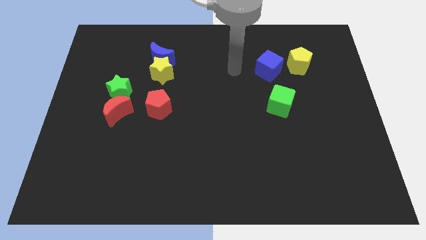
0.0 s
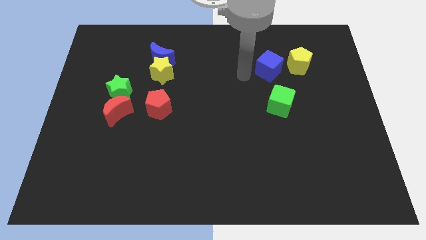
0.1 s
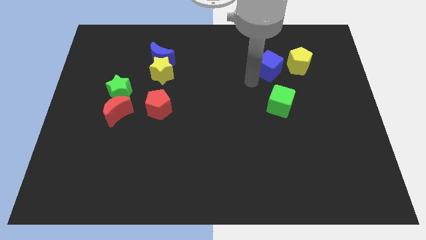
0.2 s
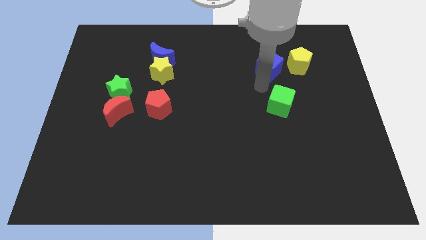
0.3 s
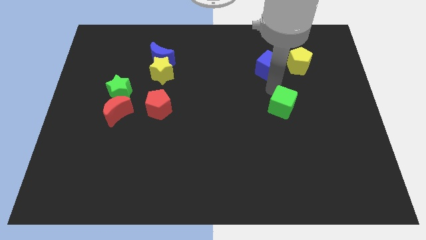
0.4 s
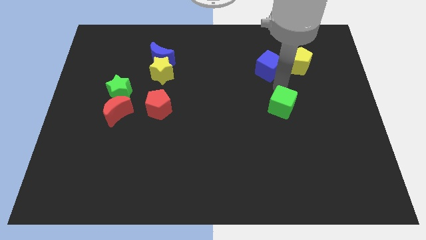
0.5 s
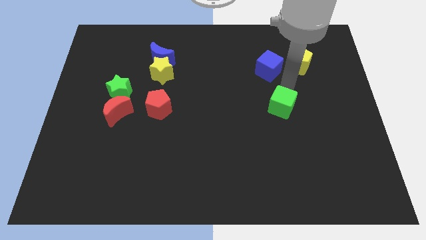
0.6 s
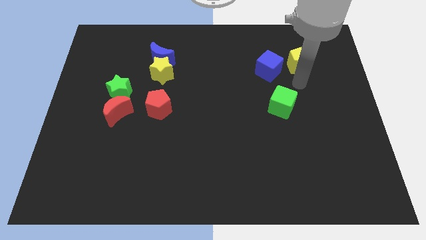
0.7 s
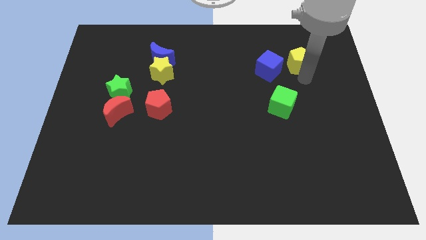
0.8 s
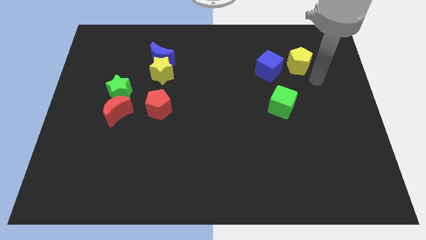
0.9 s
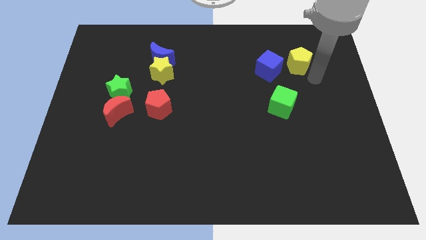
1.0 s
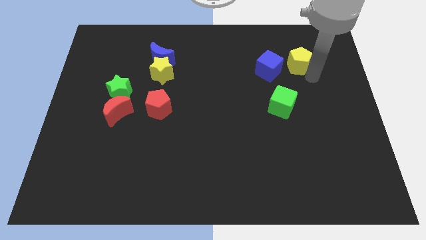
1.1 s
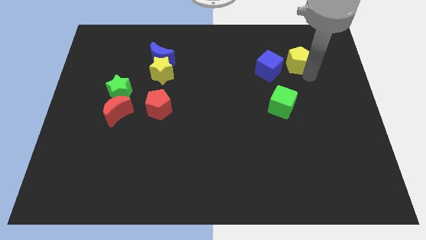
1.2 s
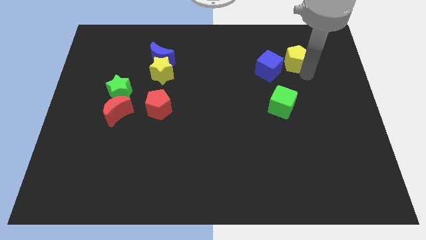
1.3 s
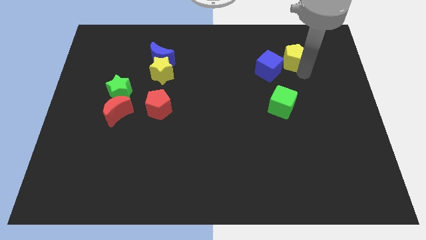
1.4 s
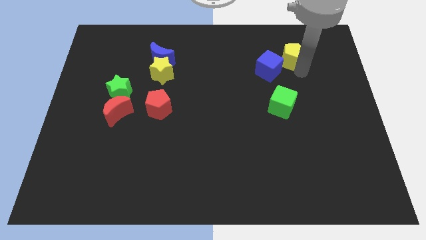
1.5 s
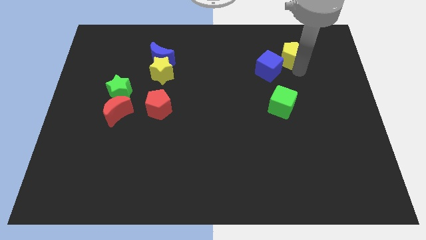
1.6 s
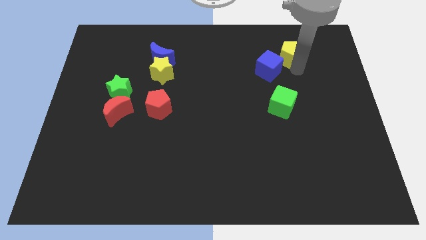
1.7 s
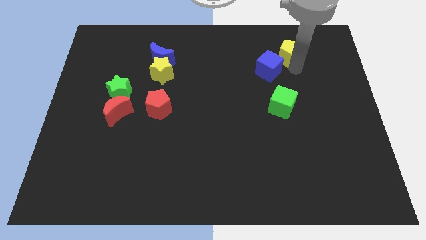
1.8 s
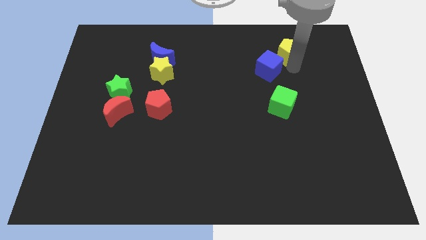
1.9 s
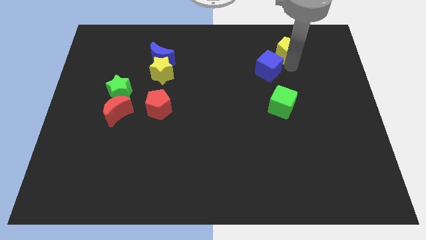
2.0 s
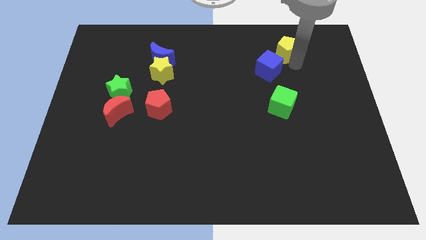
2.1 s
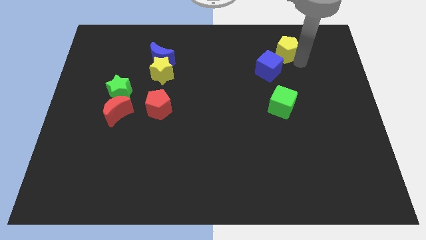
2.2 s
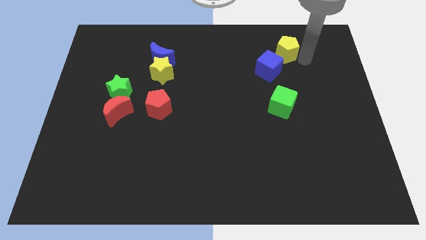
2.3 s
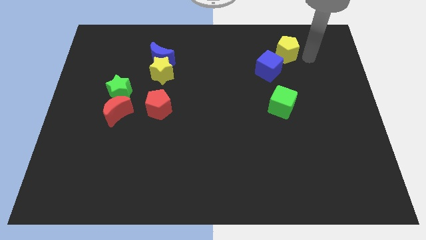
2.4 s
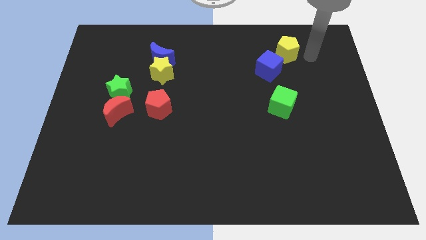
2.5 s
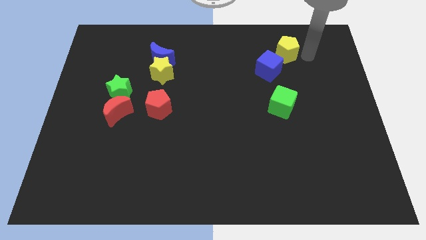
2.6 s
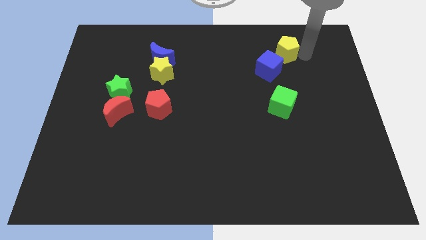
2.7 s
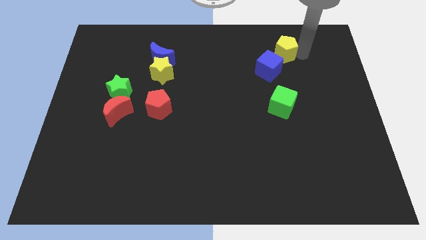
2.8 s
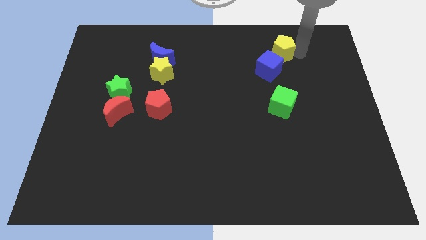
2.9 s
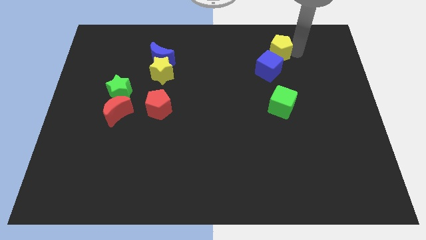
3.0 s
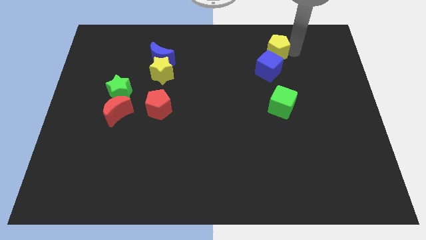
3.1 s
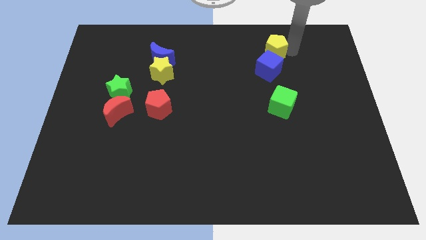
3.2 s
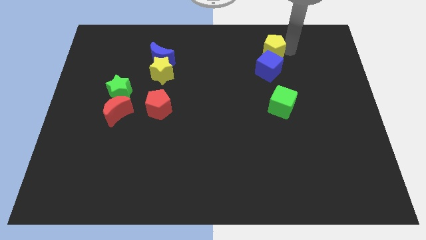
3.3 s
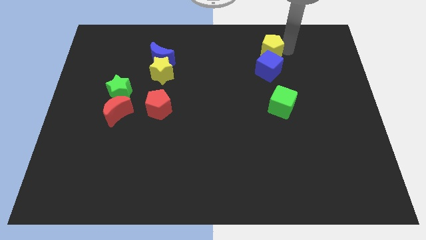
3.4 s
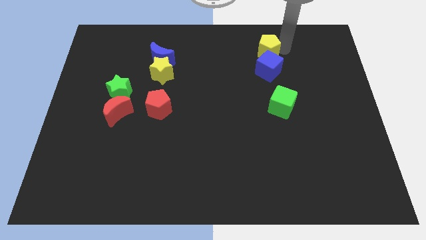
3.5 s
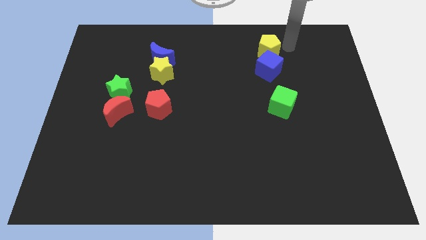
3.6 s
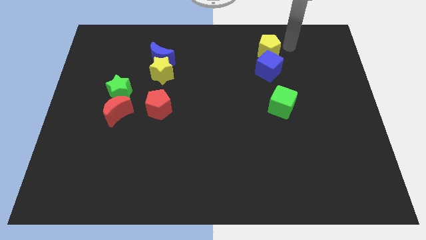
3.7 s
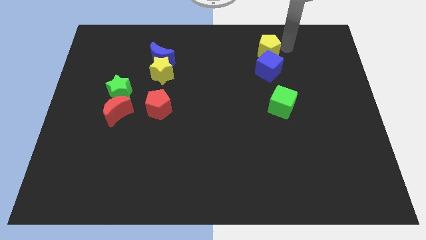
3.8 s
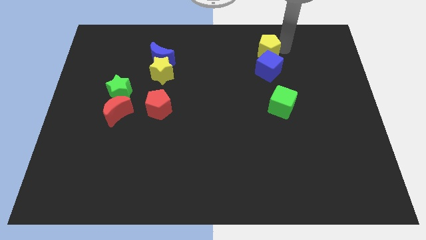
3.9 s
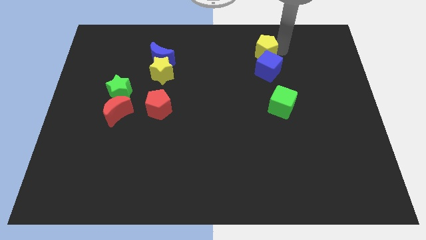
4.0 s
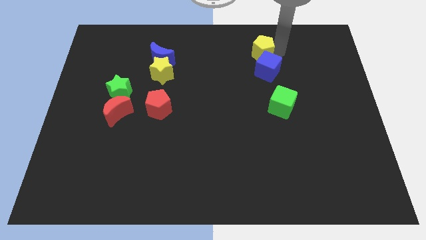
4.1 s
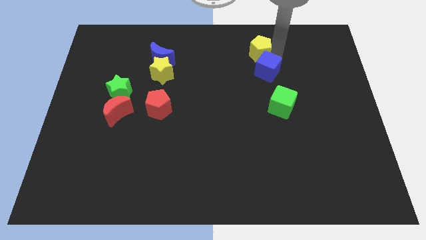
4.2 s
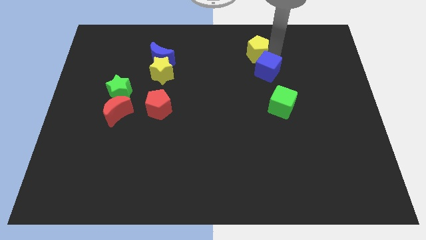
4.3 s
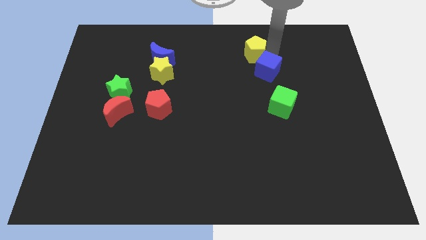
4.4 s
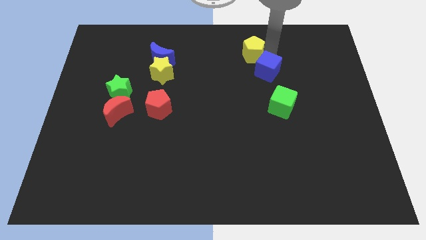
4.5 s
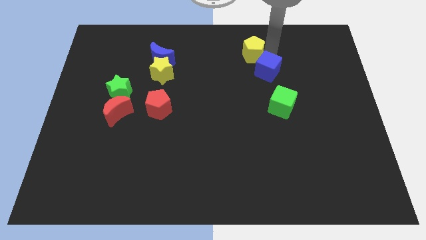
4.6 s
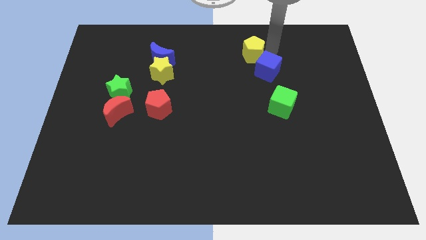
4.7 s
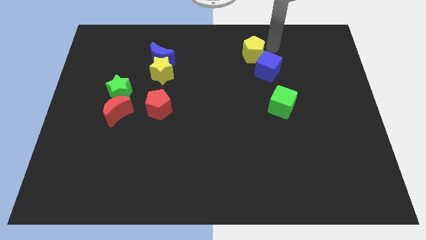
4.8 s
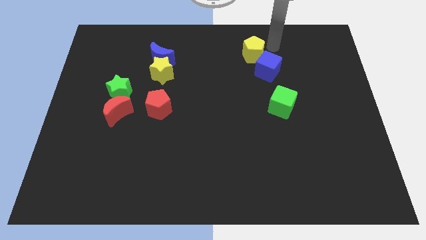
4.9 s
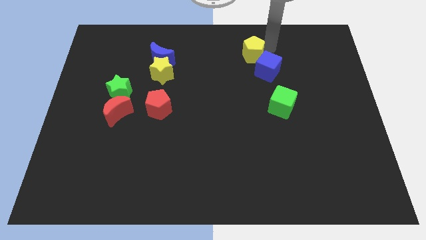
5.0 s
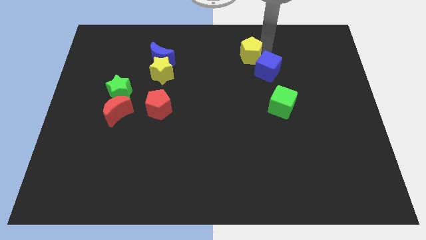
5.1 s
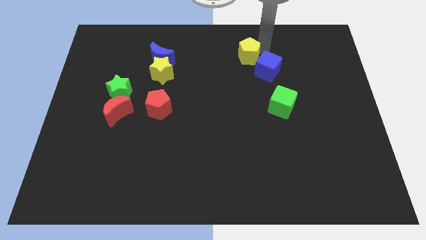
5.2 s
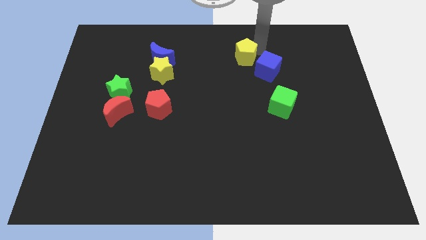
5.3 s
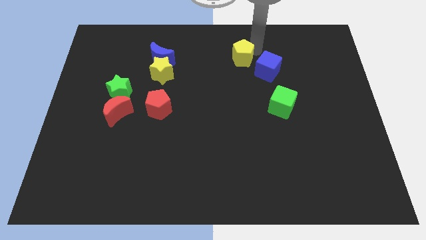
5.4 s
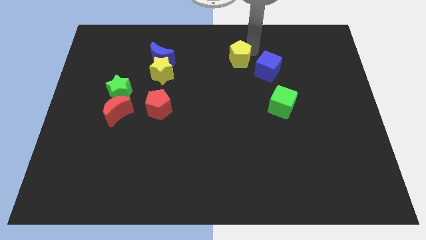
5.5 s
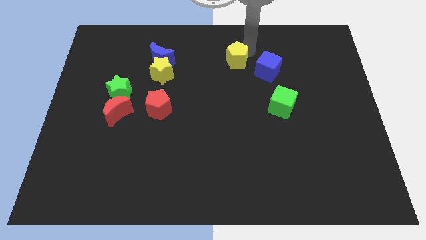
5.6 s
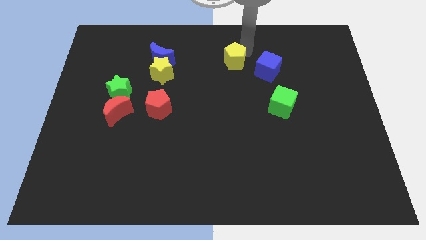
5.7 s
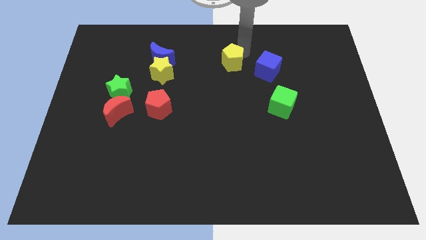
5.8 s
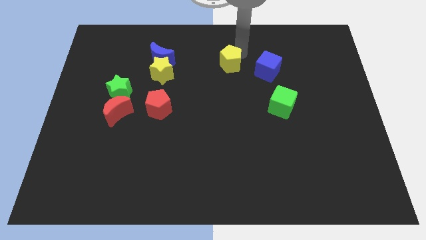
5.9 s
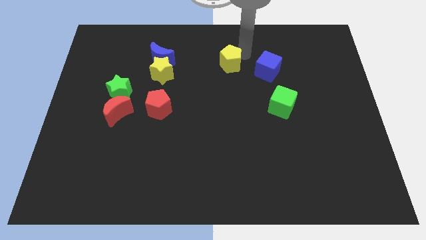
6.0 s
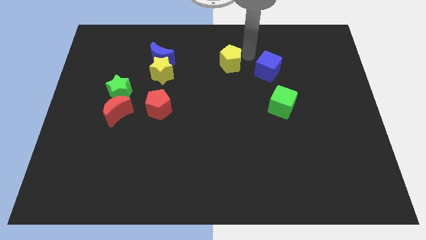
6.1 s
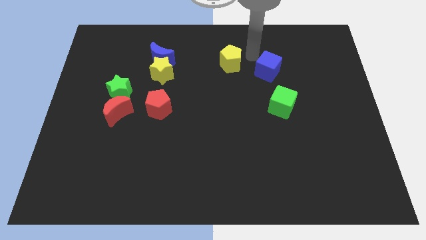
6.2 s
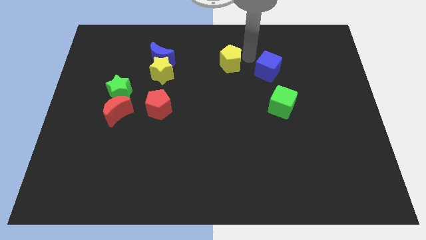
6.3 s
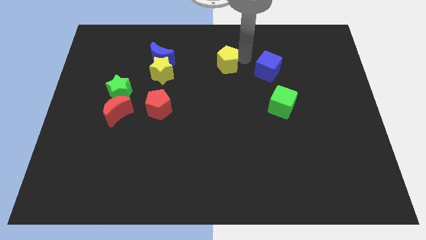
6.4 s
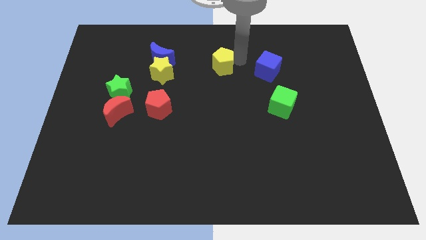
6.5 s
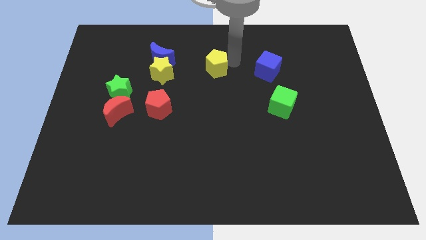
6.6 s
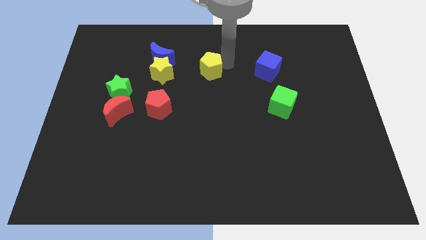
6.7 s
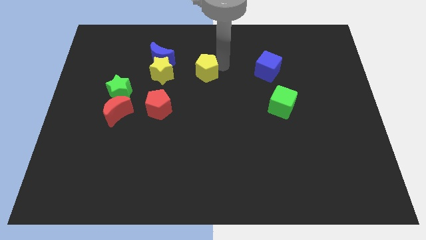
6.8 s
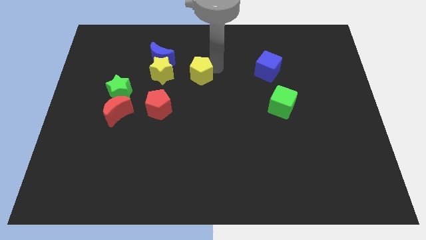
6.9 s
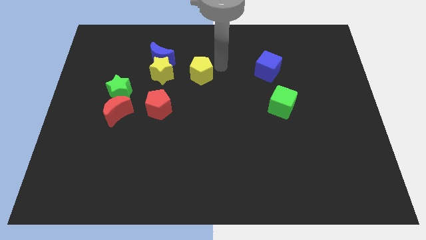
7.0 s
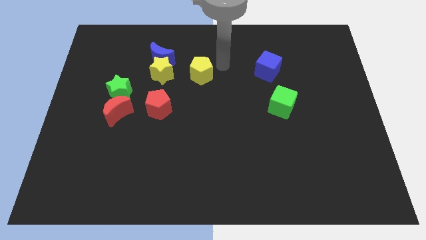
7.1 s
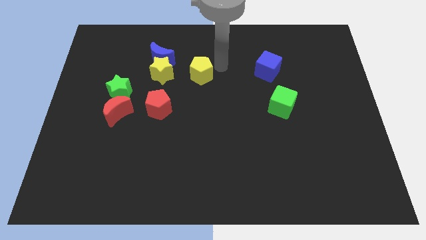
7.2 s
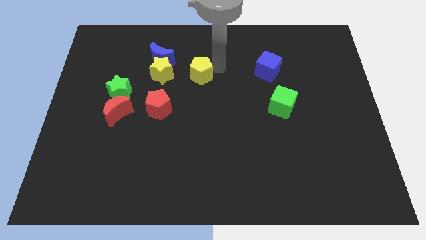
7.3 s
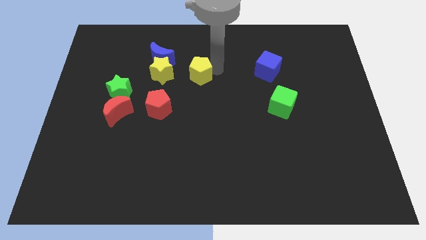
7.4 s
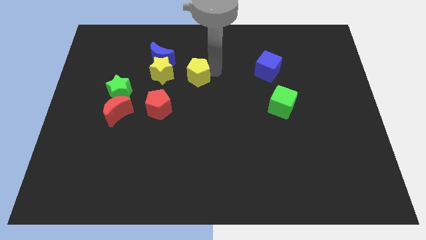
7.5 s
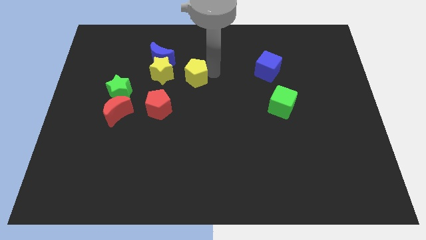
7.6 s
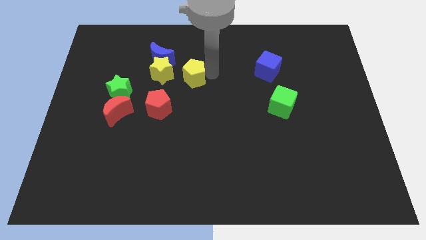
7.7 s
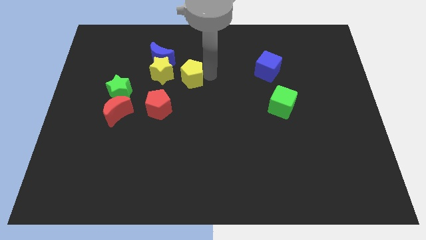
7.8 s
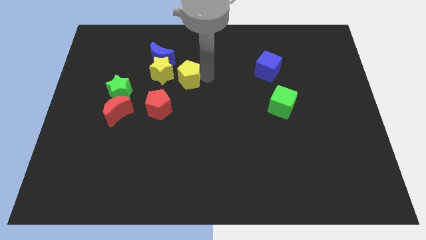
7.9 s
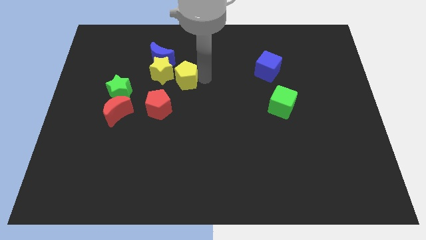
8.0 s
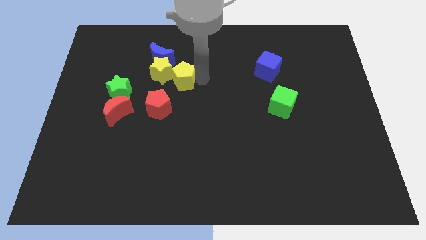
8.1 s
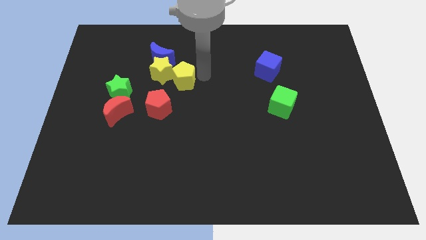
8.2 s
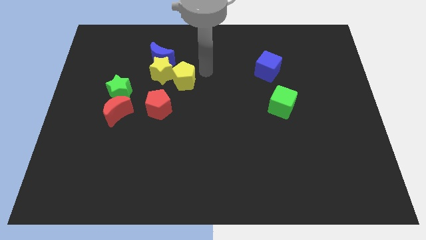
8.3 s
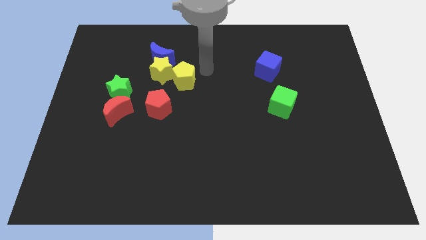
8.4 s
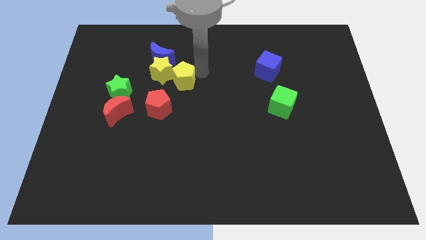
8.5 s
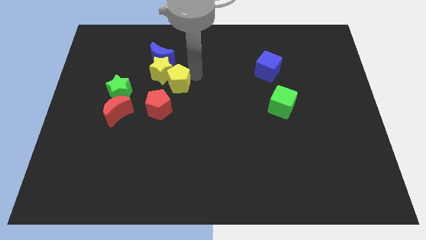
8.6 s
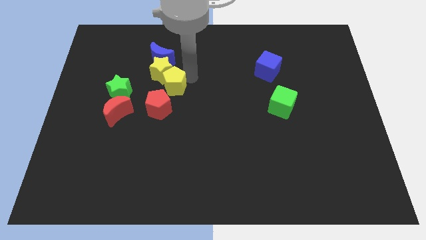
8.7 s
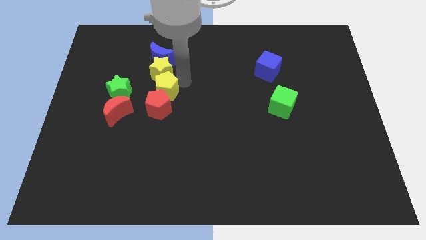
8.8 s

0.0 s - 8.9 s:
push the yellow pentagon to the top left side of the red pentagon
